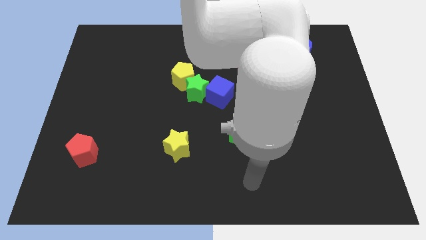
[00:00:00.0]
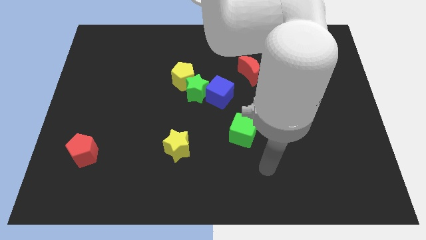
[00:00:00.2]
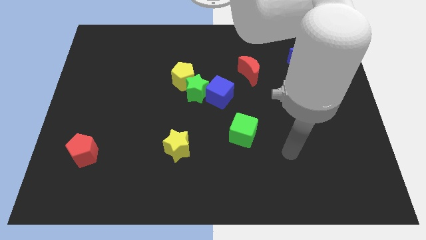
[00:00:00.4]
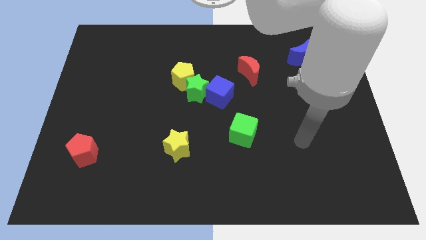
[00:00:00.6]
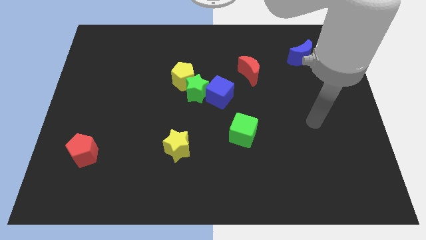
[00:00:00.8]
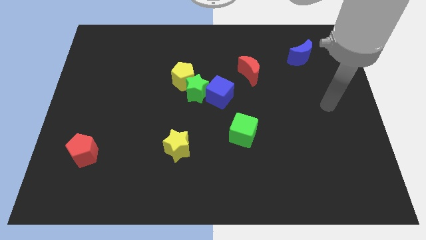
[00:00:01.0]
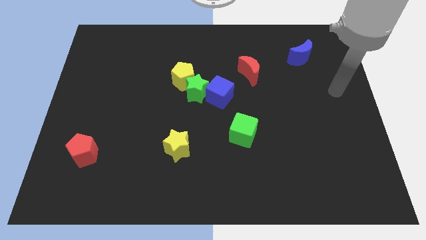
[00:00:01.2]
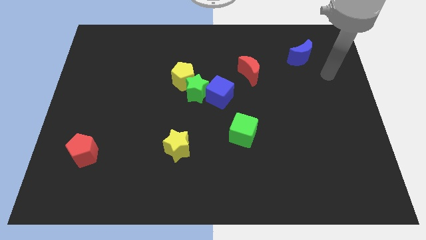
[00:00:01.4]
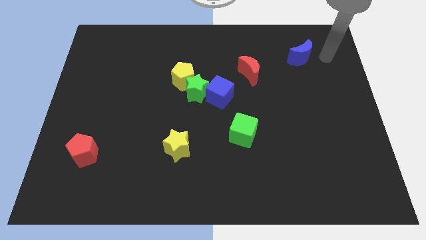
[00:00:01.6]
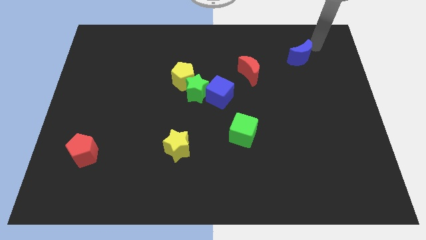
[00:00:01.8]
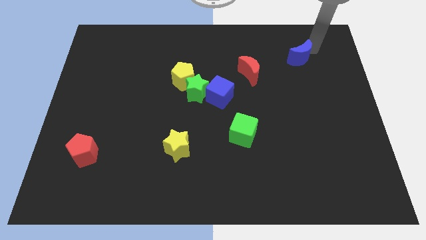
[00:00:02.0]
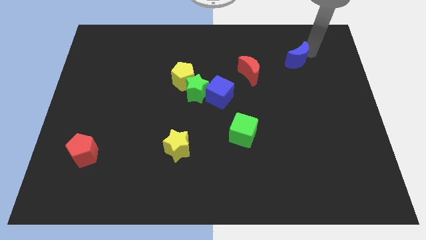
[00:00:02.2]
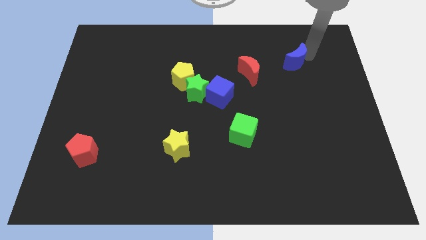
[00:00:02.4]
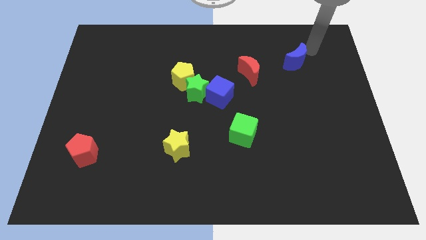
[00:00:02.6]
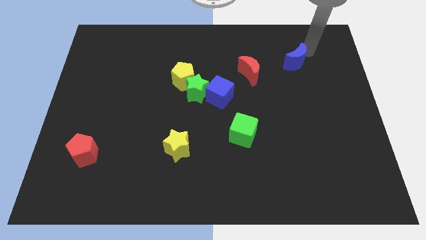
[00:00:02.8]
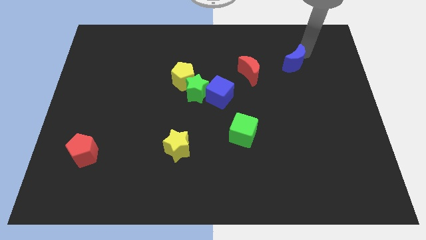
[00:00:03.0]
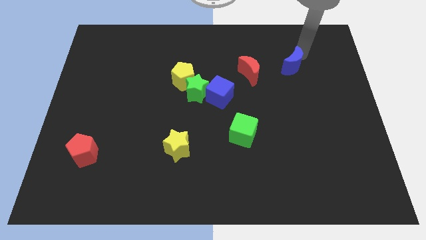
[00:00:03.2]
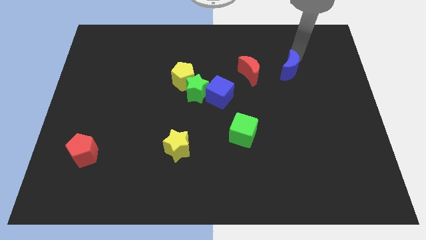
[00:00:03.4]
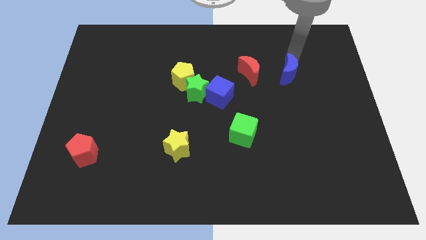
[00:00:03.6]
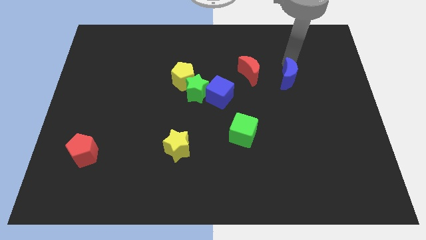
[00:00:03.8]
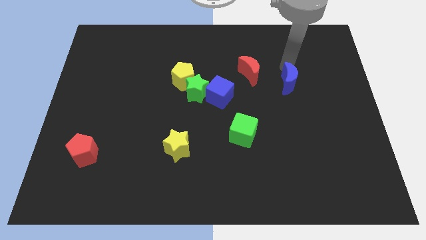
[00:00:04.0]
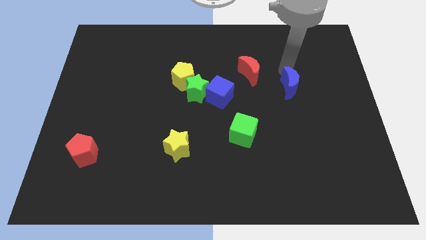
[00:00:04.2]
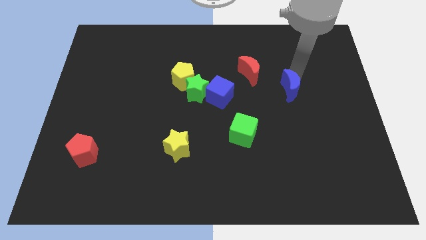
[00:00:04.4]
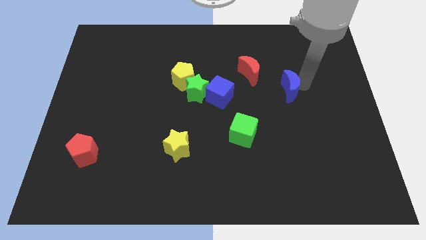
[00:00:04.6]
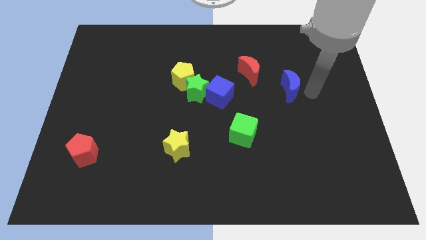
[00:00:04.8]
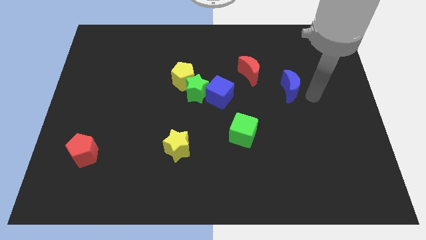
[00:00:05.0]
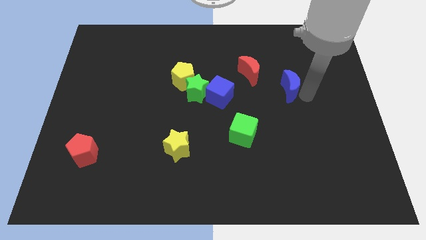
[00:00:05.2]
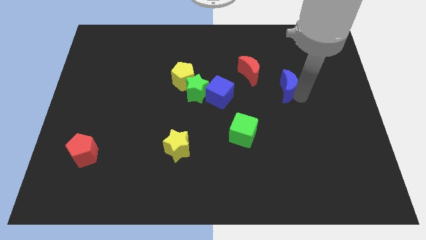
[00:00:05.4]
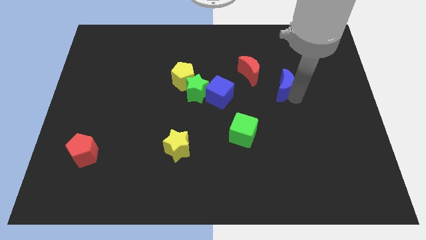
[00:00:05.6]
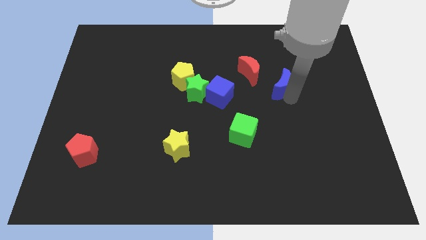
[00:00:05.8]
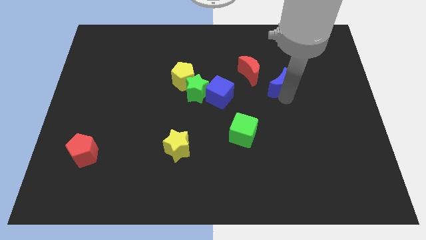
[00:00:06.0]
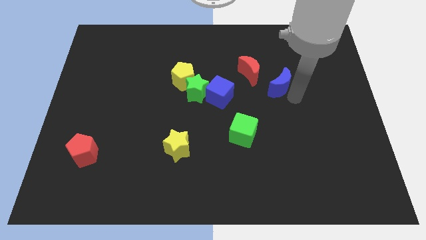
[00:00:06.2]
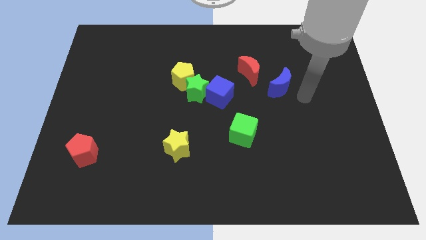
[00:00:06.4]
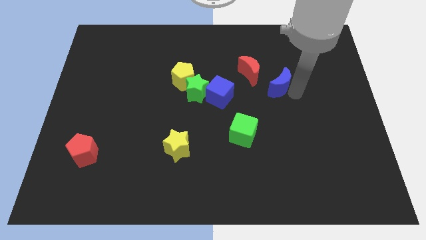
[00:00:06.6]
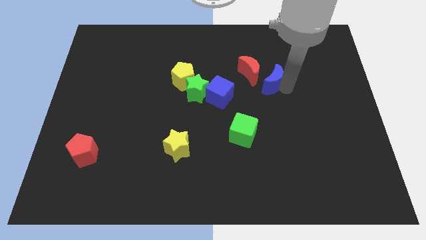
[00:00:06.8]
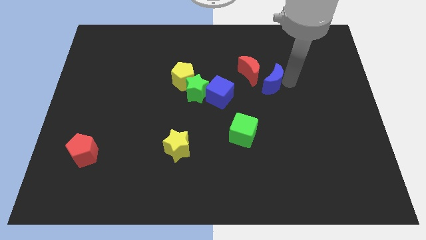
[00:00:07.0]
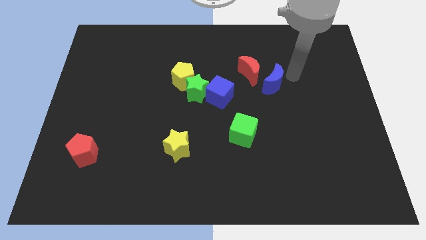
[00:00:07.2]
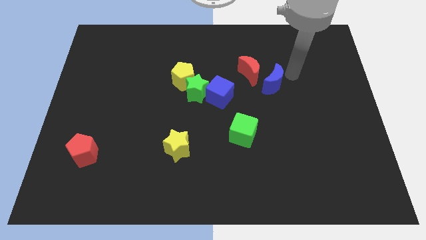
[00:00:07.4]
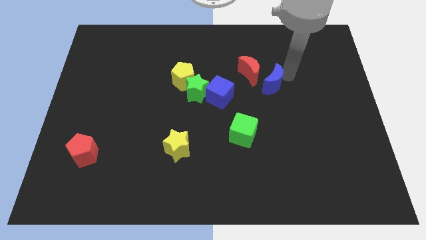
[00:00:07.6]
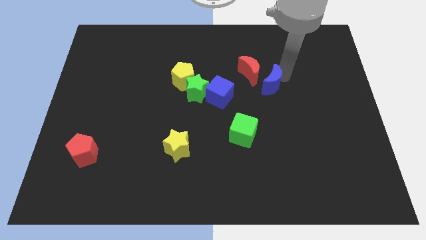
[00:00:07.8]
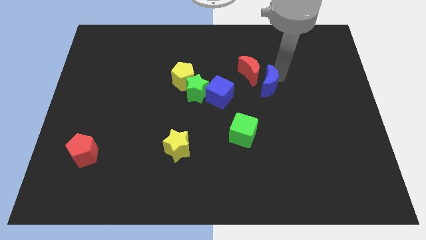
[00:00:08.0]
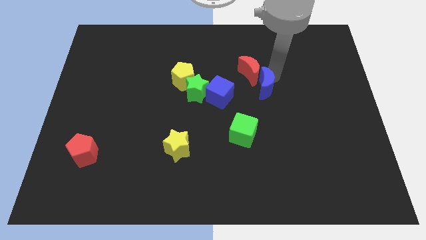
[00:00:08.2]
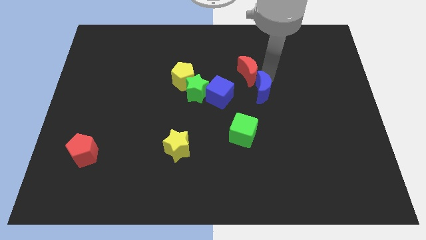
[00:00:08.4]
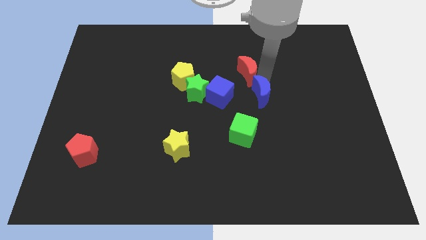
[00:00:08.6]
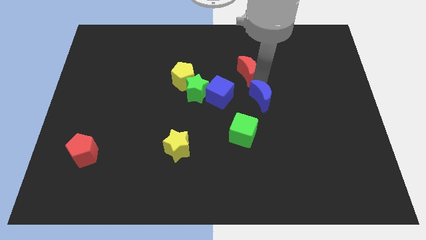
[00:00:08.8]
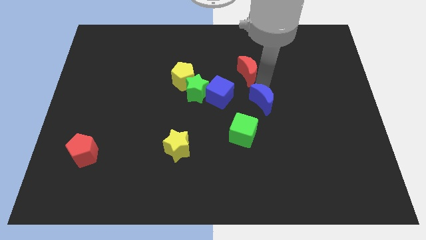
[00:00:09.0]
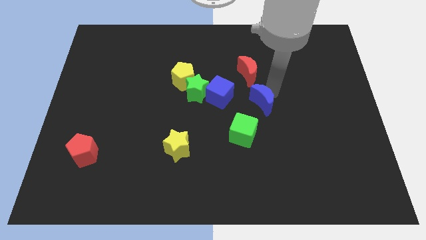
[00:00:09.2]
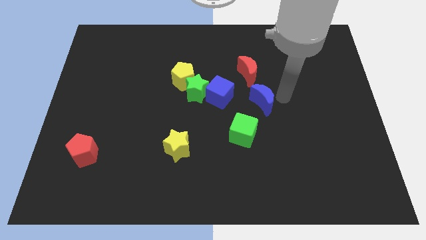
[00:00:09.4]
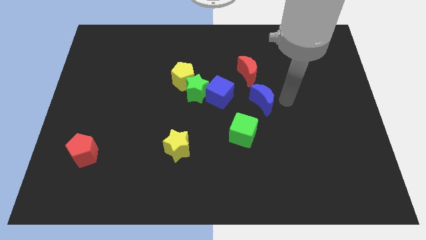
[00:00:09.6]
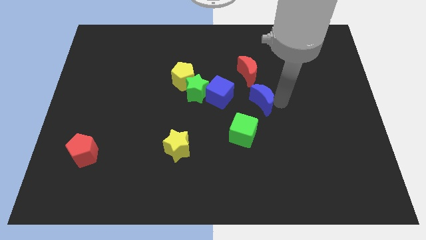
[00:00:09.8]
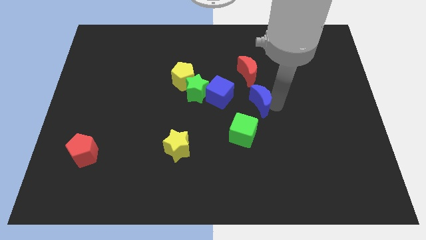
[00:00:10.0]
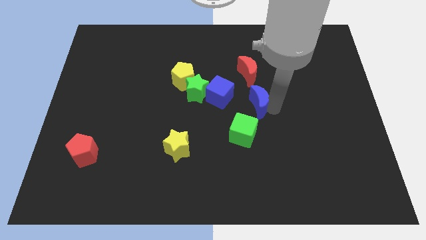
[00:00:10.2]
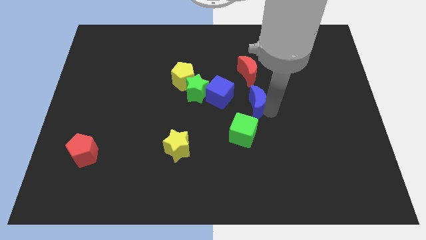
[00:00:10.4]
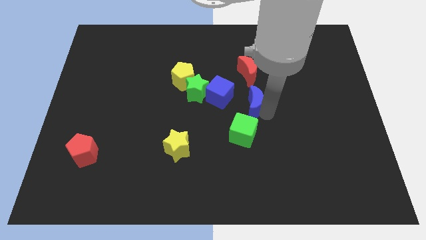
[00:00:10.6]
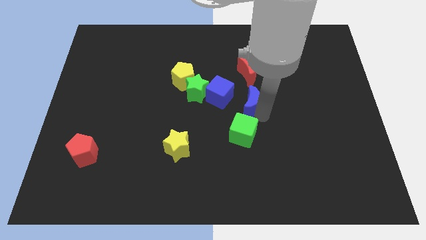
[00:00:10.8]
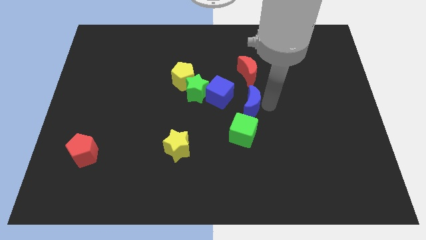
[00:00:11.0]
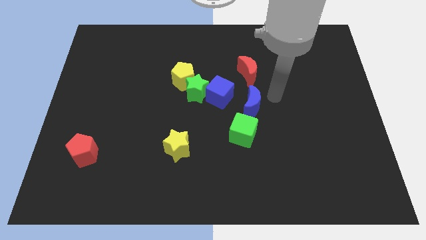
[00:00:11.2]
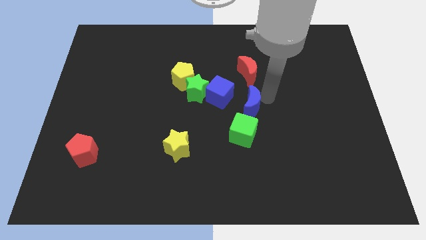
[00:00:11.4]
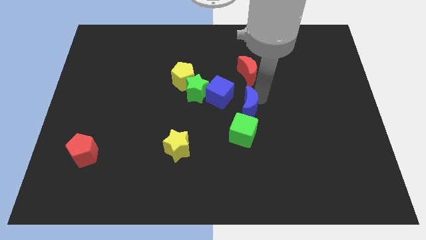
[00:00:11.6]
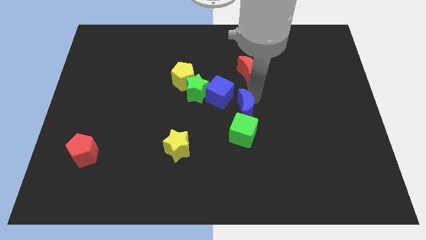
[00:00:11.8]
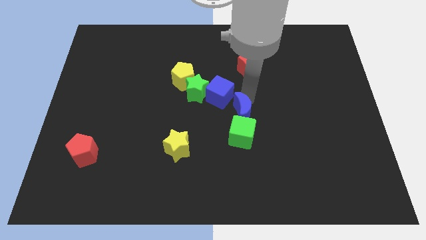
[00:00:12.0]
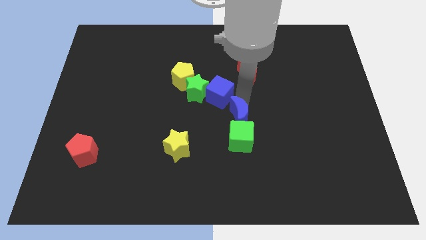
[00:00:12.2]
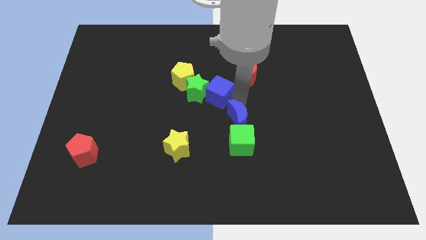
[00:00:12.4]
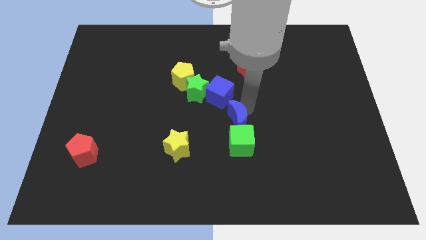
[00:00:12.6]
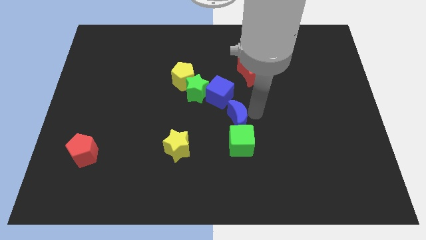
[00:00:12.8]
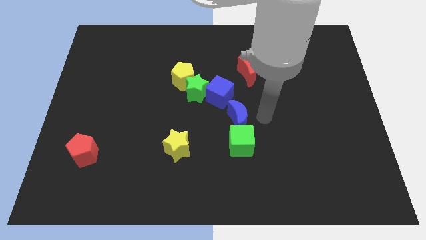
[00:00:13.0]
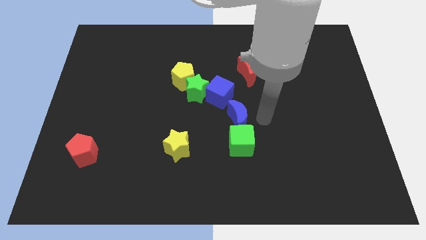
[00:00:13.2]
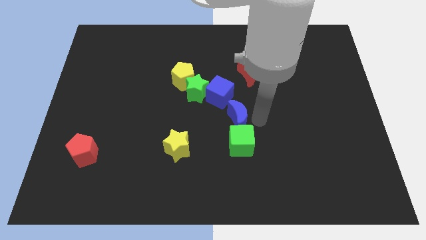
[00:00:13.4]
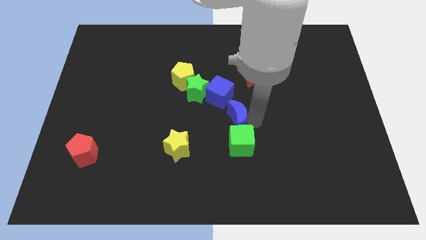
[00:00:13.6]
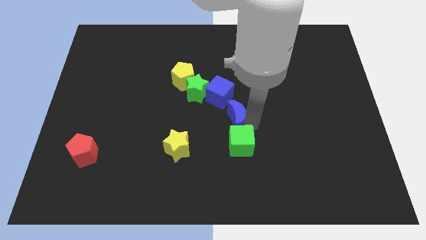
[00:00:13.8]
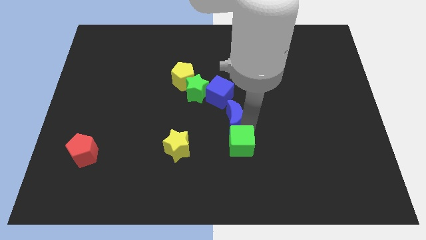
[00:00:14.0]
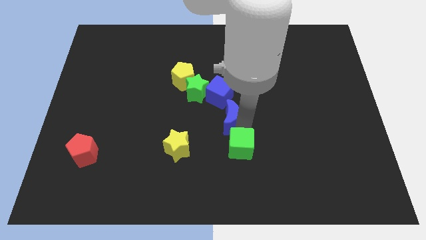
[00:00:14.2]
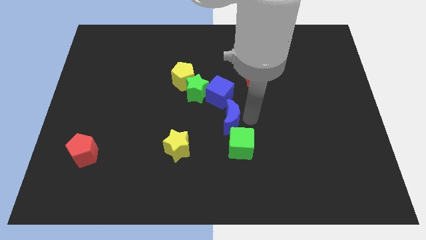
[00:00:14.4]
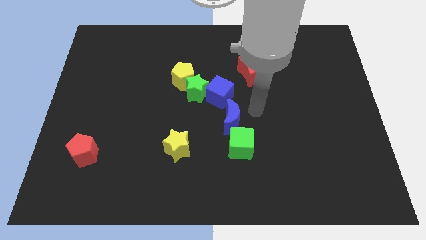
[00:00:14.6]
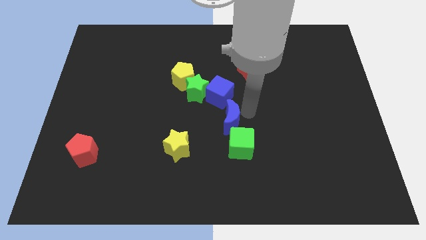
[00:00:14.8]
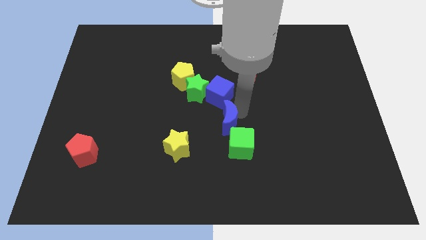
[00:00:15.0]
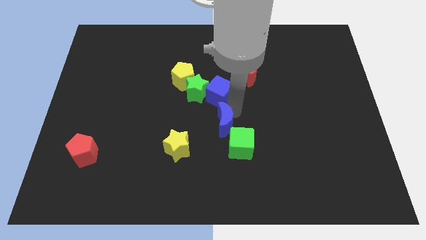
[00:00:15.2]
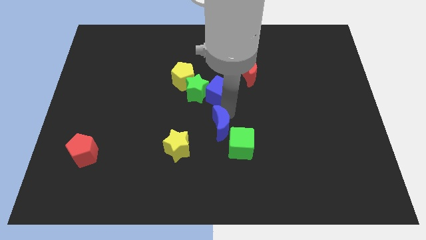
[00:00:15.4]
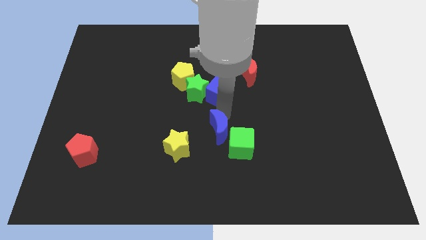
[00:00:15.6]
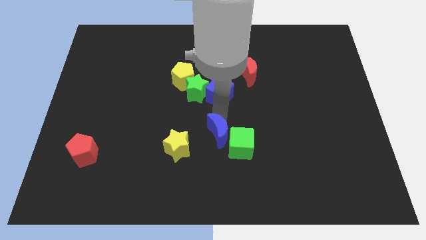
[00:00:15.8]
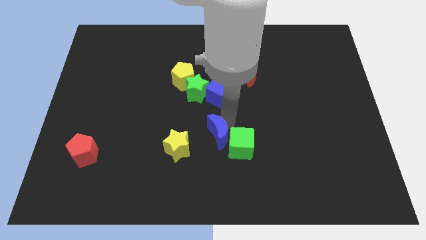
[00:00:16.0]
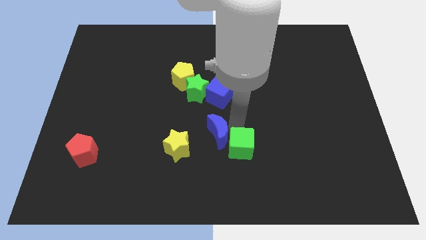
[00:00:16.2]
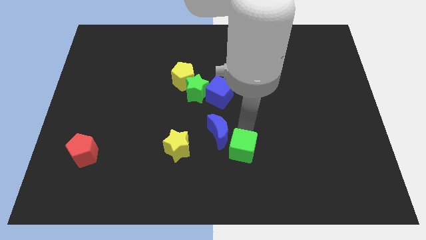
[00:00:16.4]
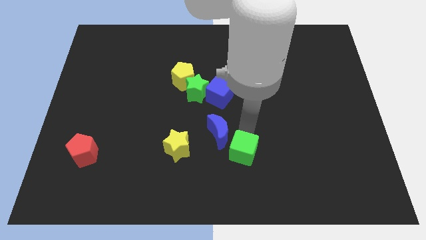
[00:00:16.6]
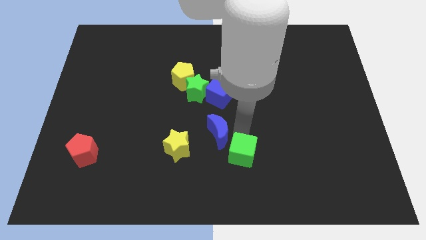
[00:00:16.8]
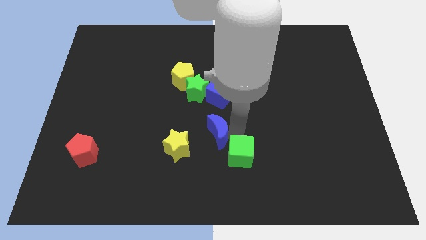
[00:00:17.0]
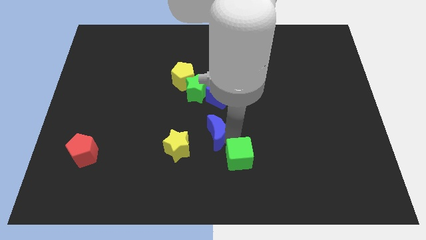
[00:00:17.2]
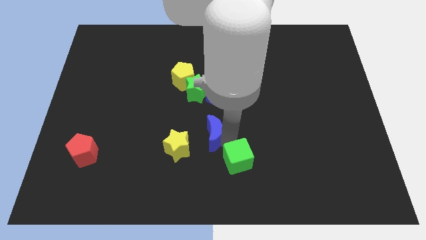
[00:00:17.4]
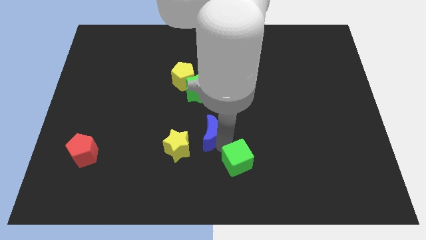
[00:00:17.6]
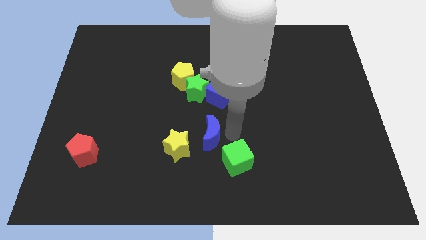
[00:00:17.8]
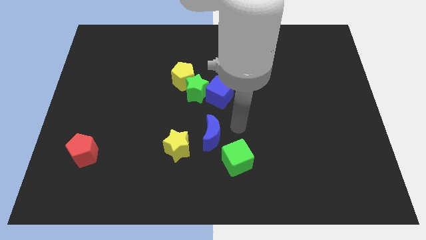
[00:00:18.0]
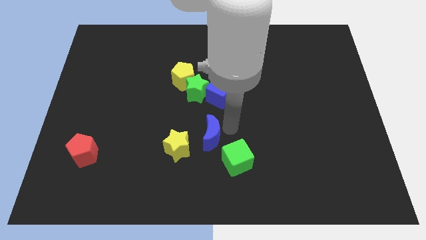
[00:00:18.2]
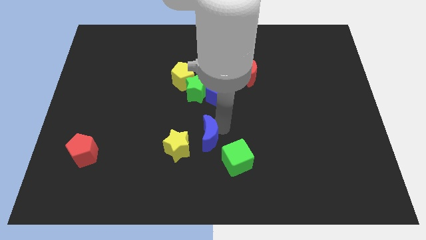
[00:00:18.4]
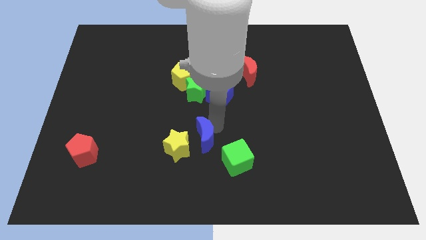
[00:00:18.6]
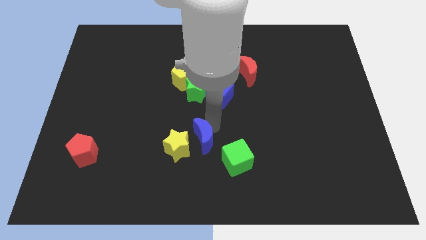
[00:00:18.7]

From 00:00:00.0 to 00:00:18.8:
push the blue moon towards the yellow star
